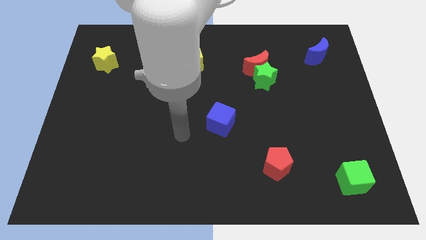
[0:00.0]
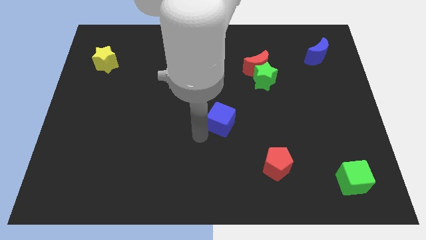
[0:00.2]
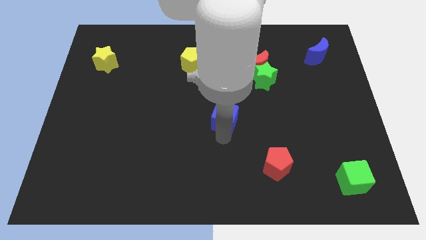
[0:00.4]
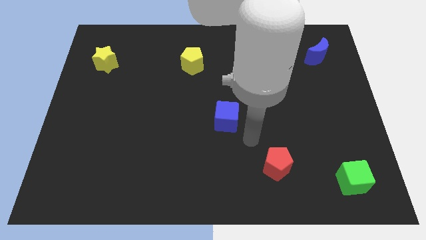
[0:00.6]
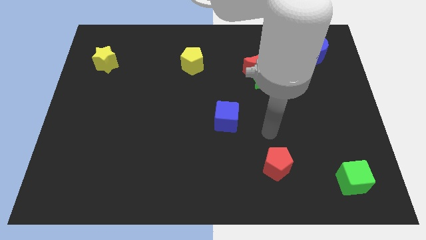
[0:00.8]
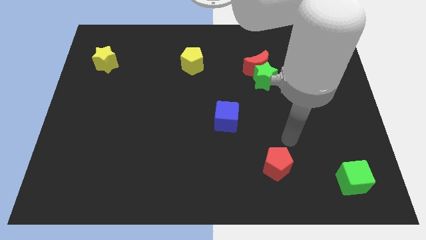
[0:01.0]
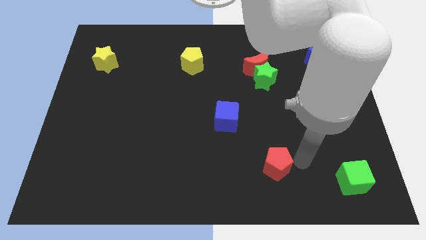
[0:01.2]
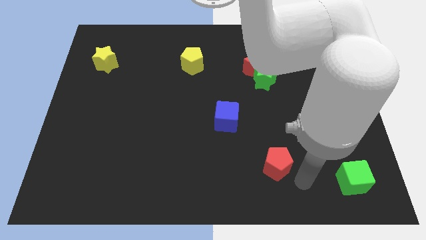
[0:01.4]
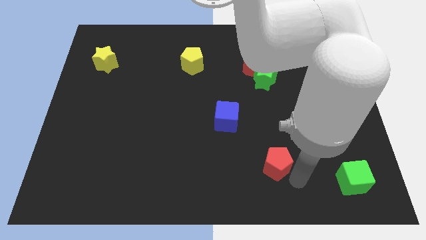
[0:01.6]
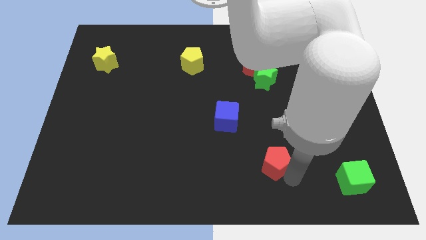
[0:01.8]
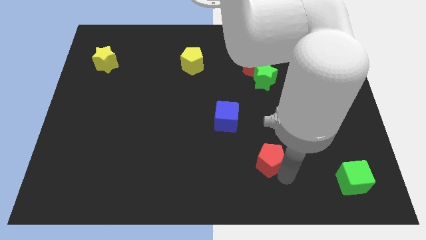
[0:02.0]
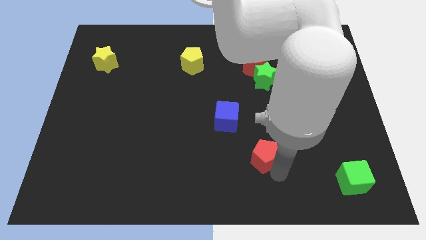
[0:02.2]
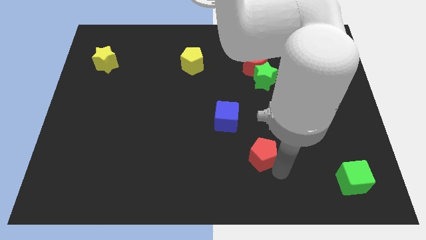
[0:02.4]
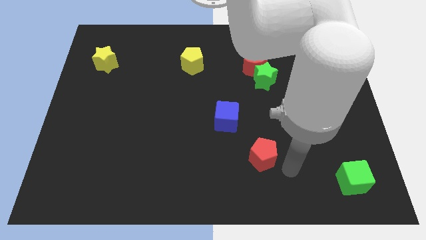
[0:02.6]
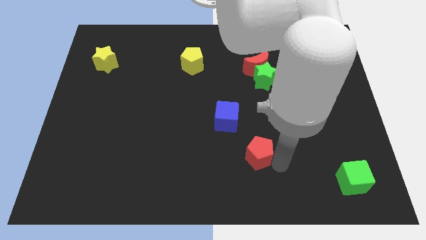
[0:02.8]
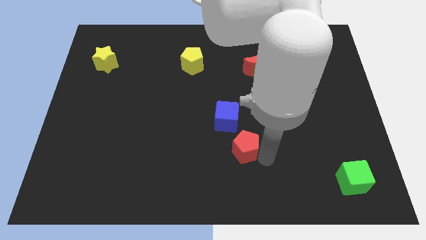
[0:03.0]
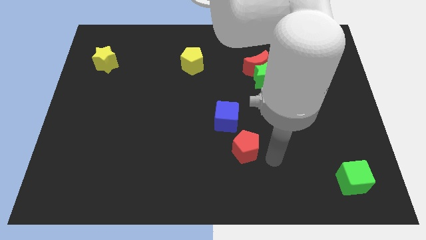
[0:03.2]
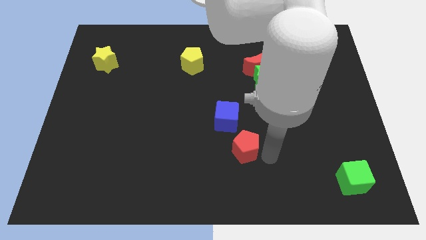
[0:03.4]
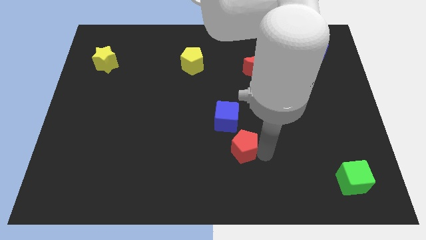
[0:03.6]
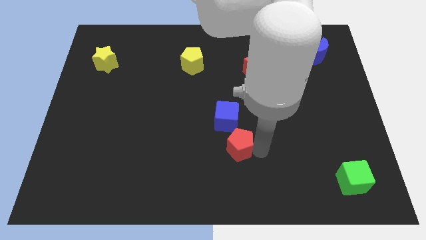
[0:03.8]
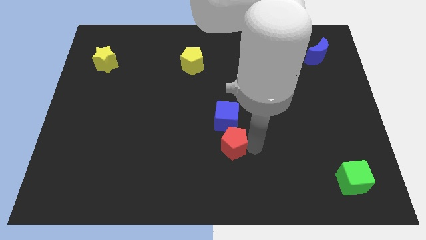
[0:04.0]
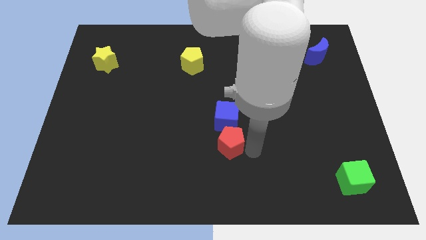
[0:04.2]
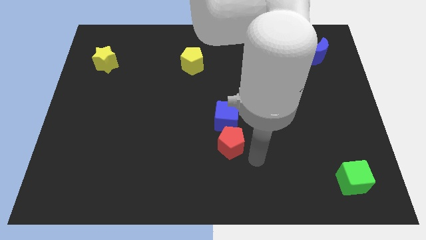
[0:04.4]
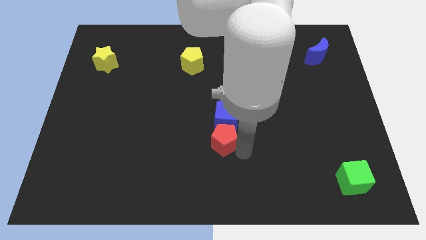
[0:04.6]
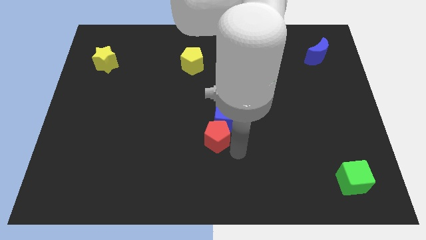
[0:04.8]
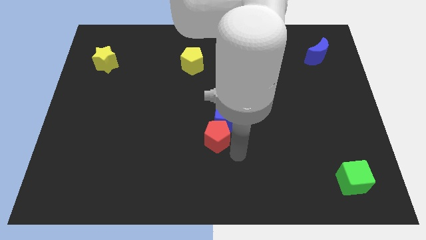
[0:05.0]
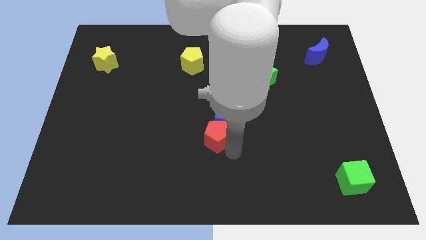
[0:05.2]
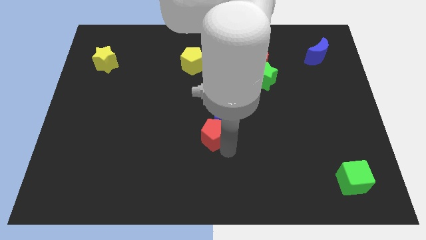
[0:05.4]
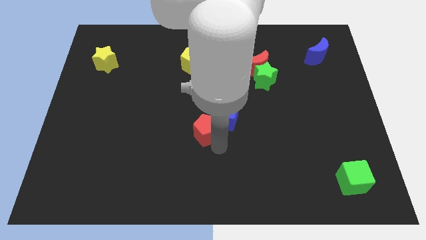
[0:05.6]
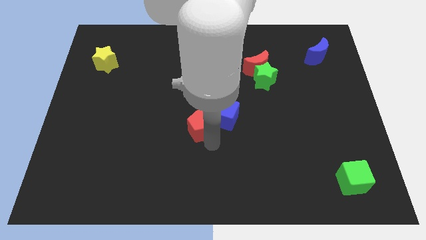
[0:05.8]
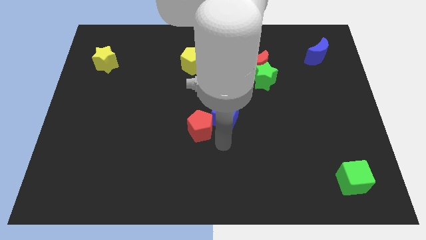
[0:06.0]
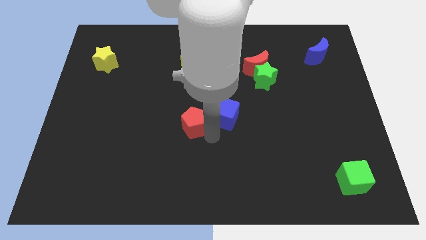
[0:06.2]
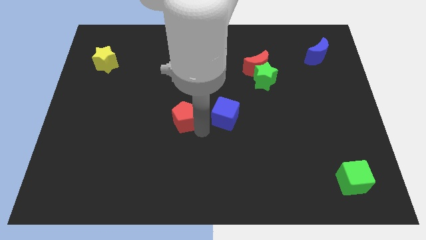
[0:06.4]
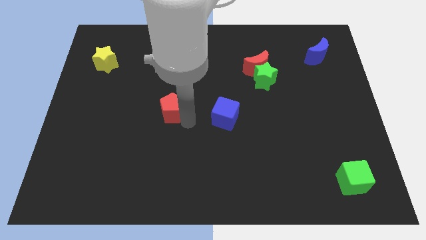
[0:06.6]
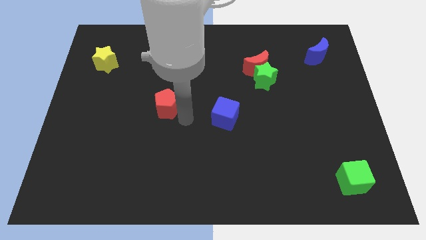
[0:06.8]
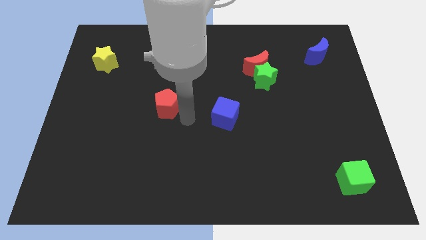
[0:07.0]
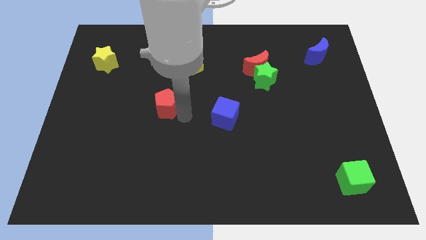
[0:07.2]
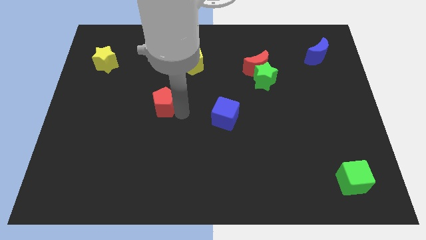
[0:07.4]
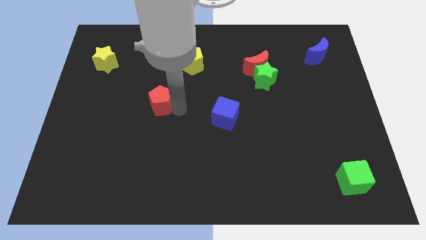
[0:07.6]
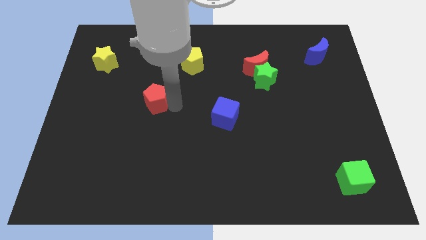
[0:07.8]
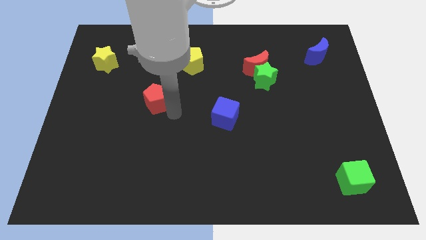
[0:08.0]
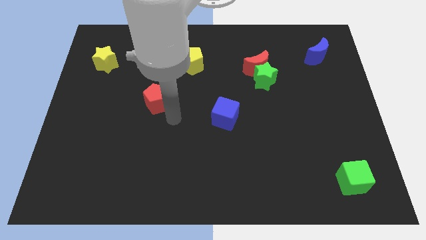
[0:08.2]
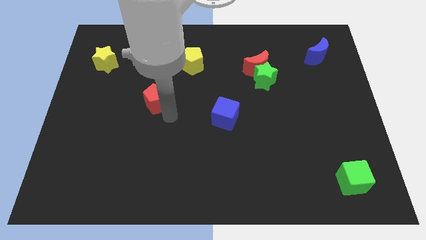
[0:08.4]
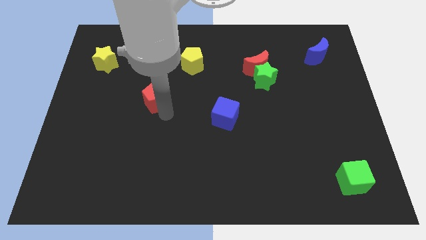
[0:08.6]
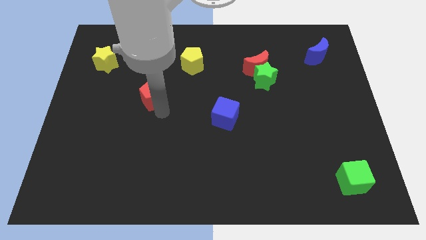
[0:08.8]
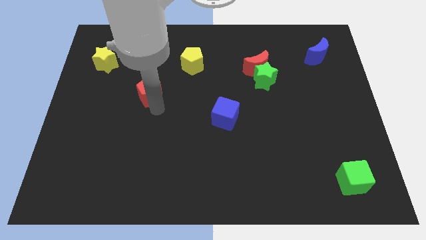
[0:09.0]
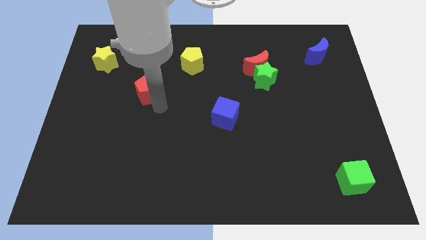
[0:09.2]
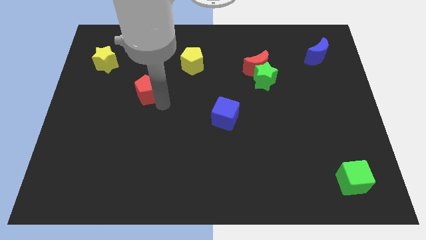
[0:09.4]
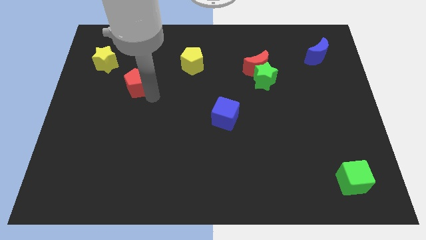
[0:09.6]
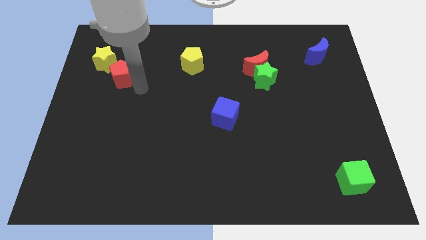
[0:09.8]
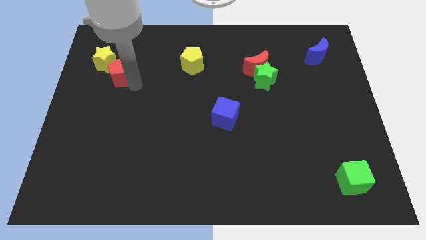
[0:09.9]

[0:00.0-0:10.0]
move the red pentagon next to the yellow star

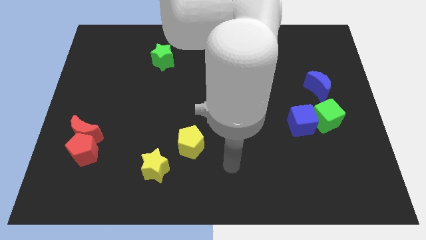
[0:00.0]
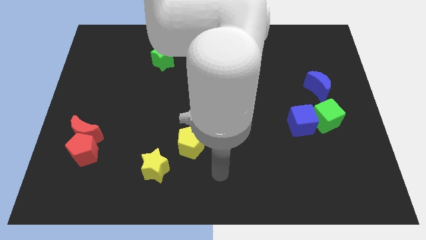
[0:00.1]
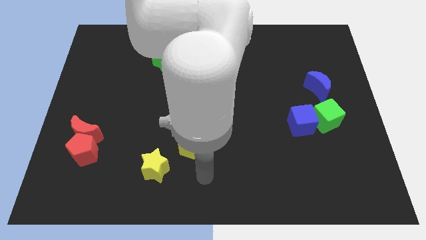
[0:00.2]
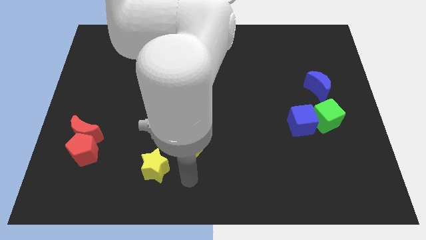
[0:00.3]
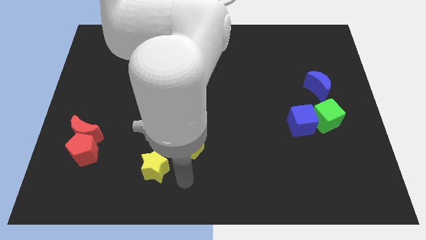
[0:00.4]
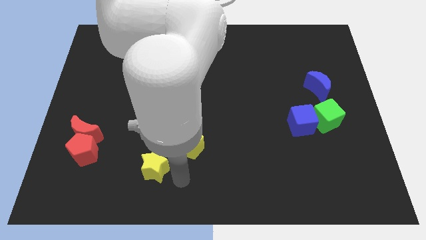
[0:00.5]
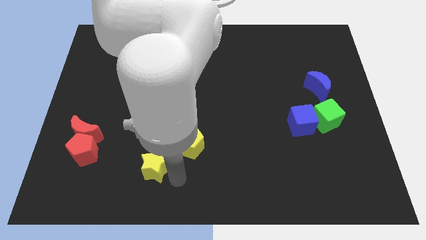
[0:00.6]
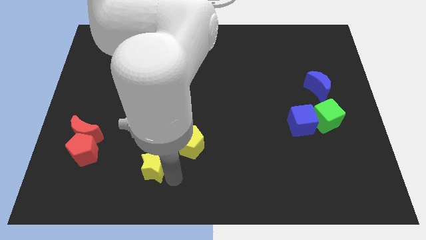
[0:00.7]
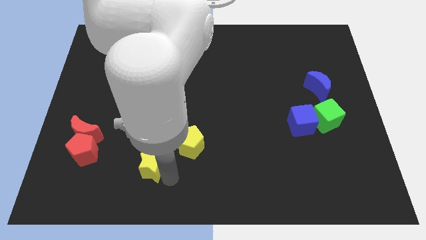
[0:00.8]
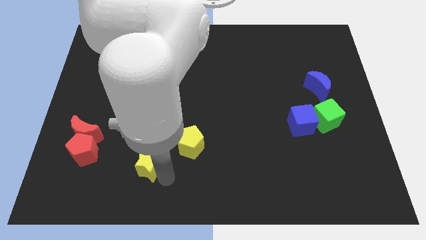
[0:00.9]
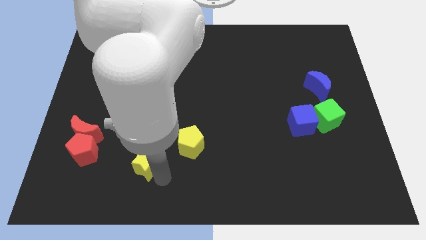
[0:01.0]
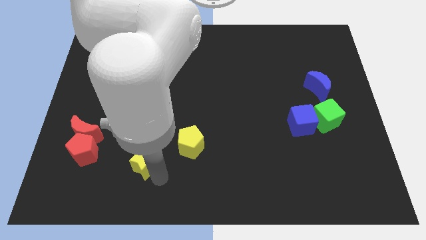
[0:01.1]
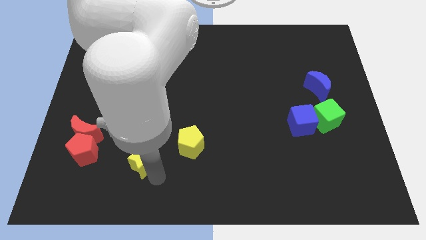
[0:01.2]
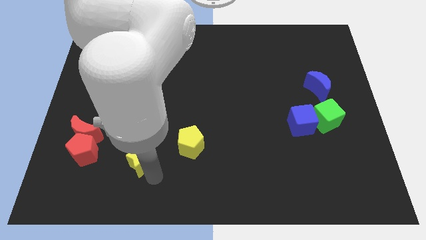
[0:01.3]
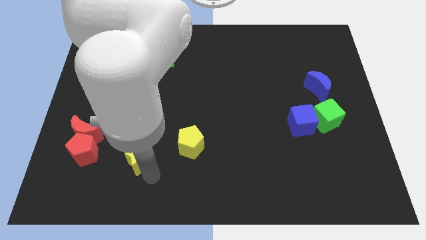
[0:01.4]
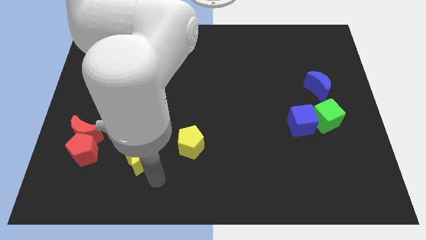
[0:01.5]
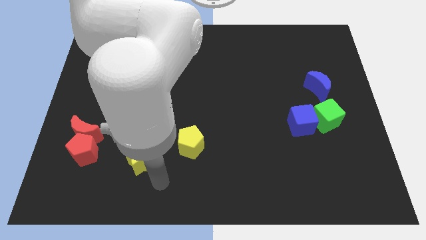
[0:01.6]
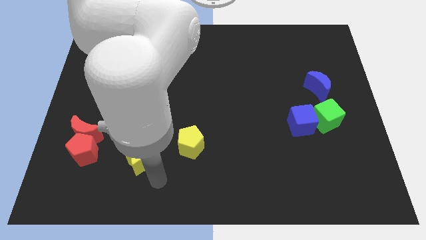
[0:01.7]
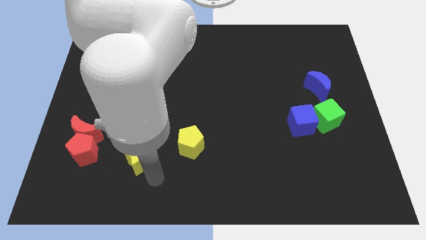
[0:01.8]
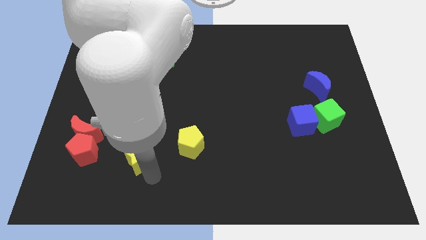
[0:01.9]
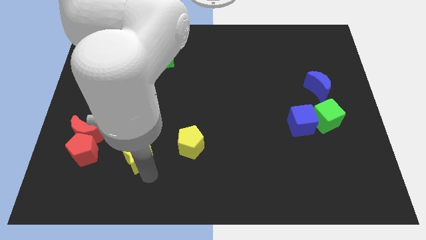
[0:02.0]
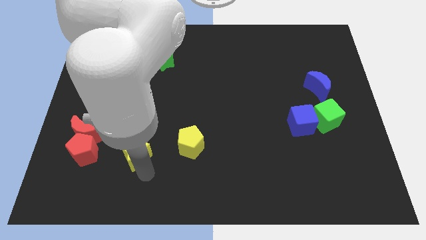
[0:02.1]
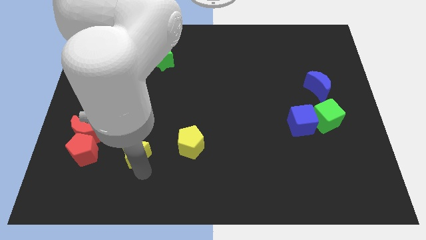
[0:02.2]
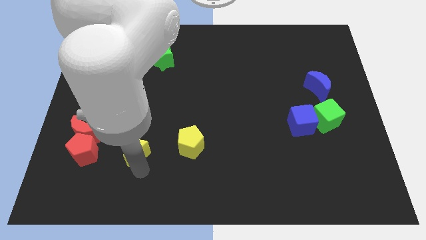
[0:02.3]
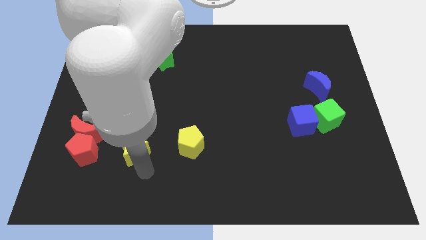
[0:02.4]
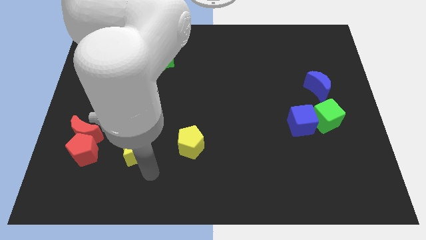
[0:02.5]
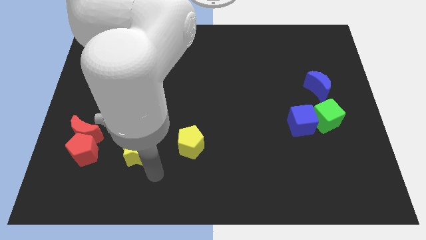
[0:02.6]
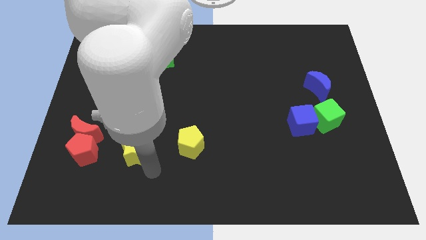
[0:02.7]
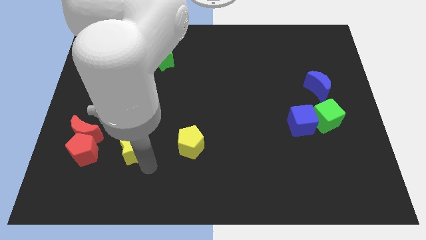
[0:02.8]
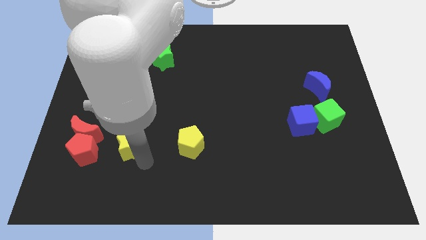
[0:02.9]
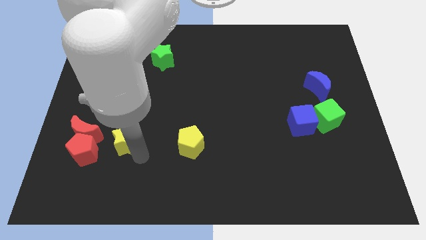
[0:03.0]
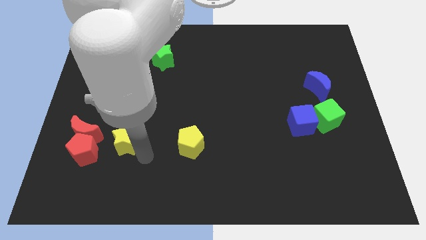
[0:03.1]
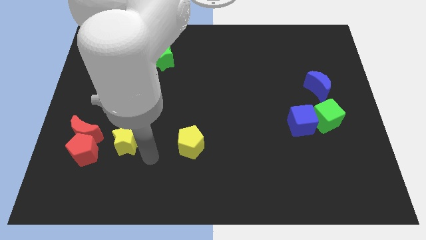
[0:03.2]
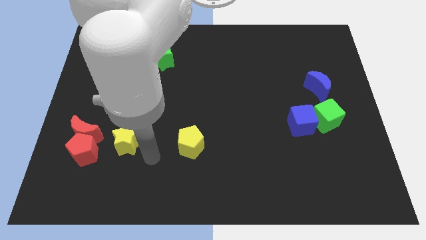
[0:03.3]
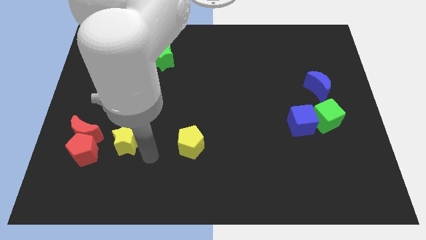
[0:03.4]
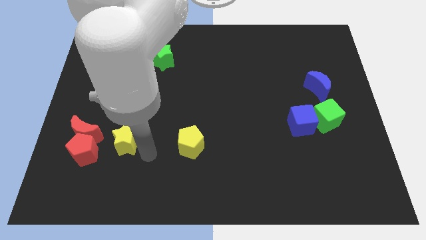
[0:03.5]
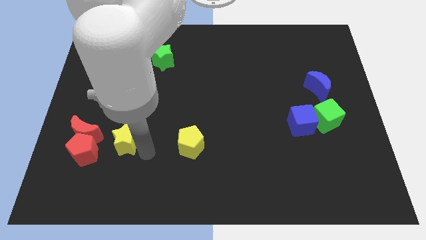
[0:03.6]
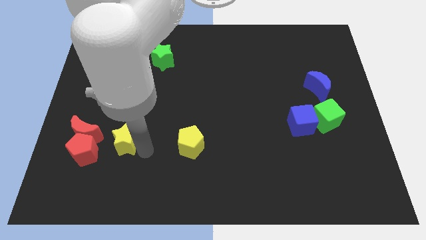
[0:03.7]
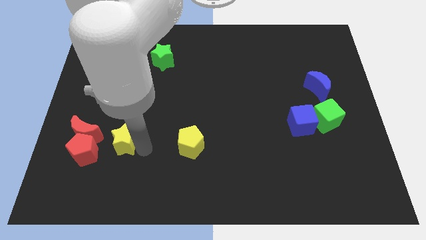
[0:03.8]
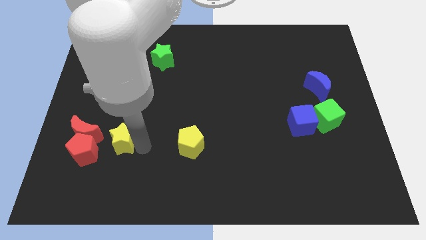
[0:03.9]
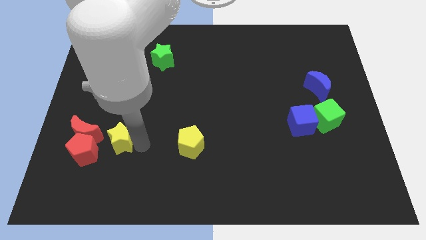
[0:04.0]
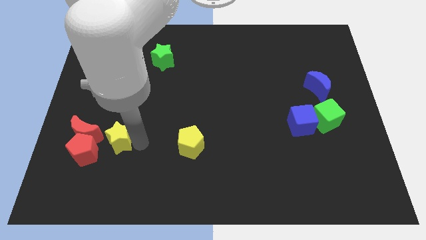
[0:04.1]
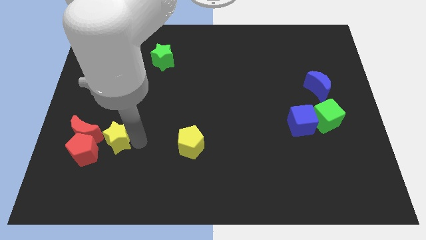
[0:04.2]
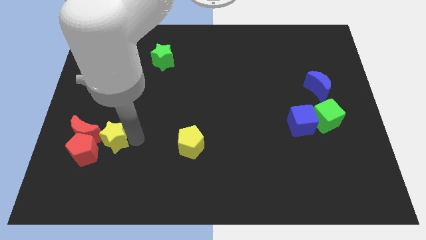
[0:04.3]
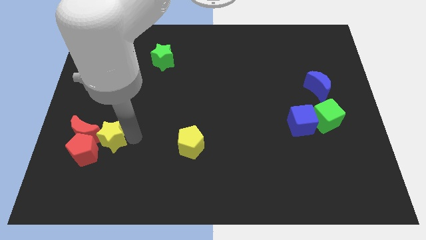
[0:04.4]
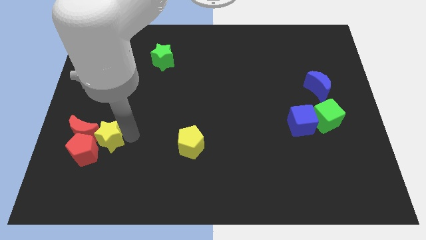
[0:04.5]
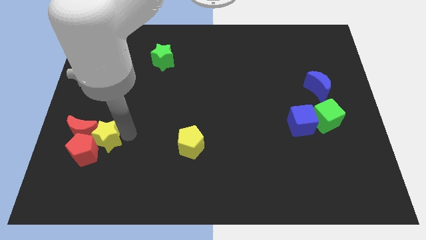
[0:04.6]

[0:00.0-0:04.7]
push the yellow star to the red moon
